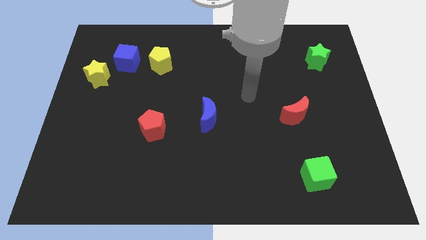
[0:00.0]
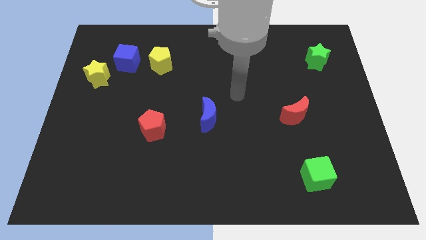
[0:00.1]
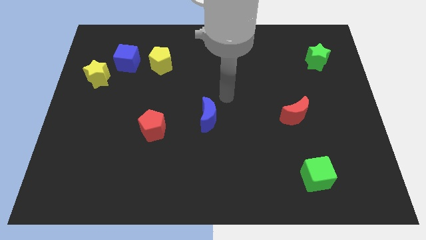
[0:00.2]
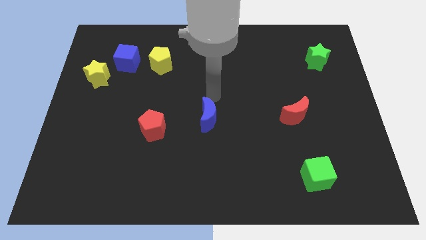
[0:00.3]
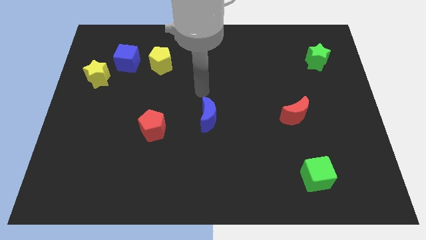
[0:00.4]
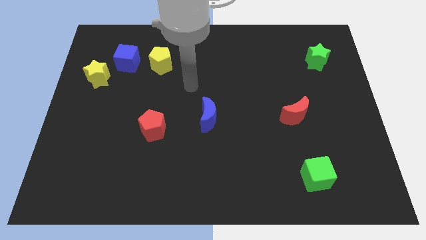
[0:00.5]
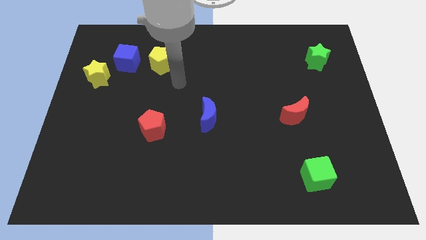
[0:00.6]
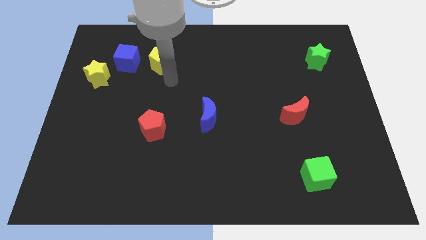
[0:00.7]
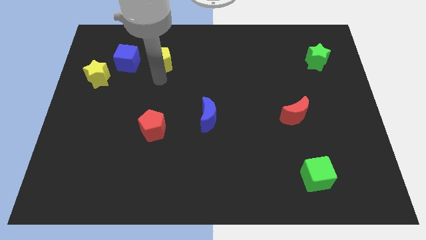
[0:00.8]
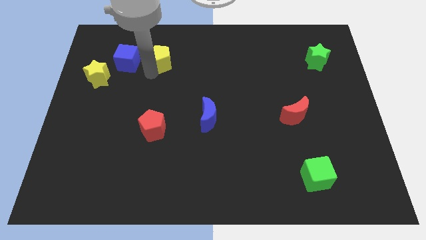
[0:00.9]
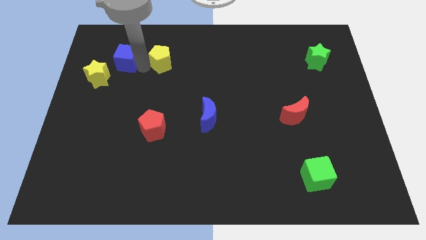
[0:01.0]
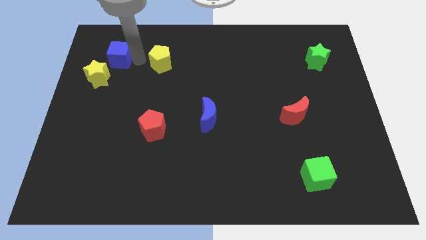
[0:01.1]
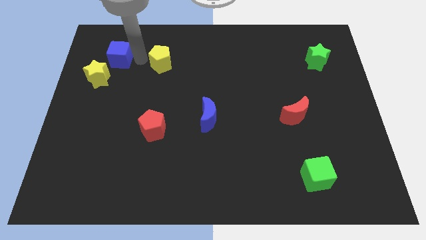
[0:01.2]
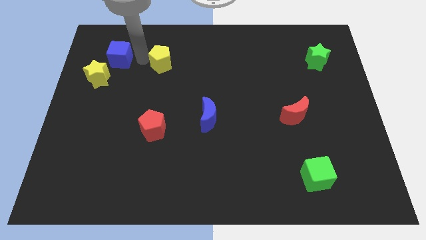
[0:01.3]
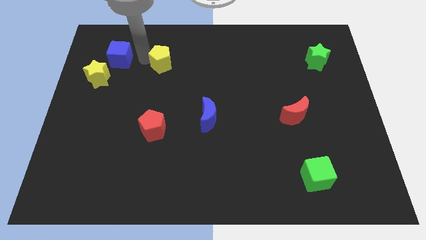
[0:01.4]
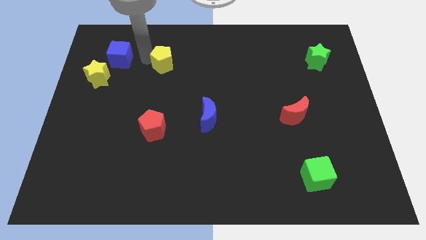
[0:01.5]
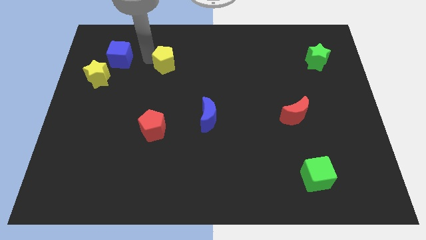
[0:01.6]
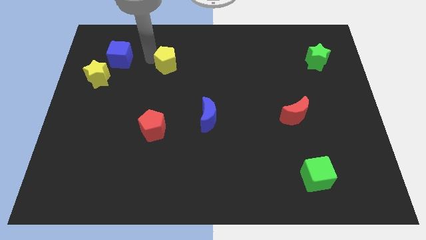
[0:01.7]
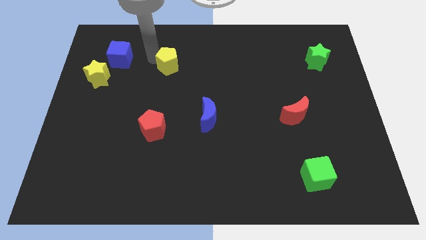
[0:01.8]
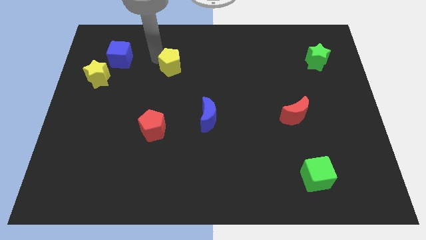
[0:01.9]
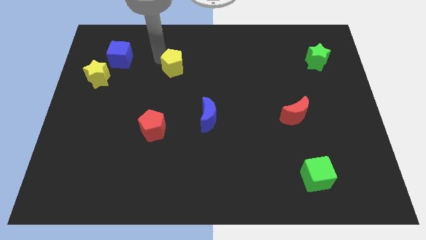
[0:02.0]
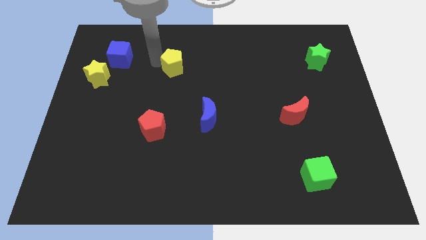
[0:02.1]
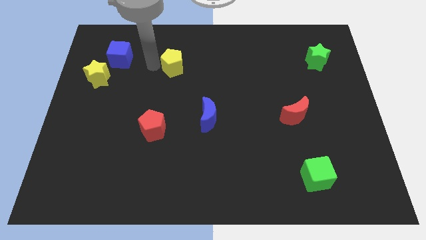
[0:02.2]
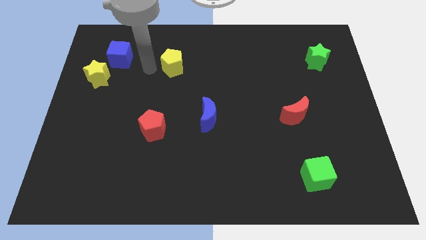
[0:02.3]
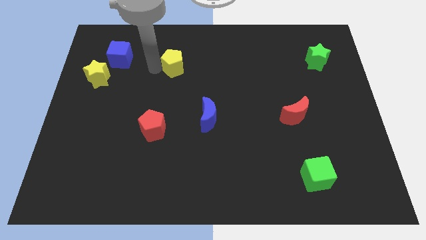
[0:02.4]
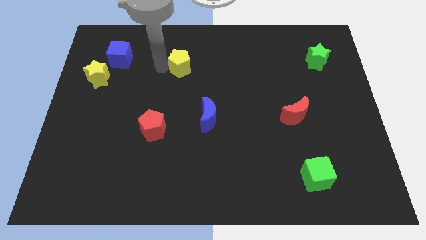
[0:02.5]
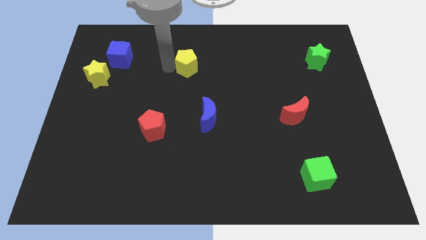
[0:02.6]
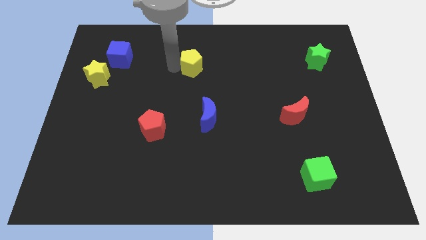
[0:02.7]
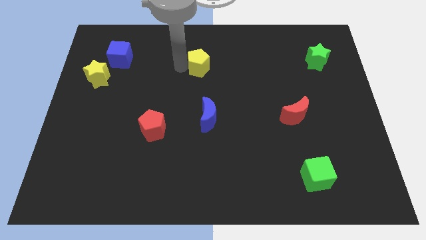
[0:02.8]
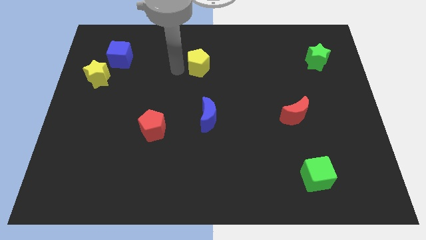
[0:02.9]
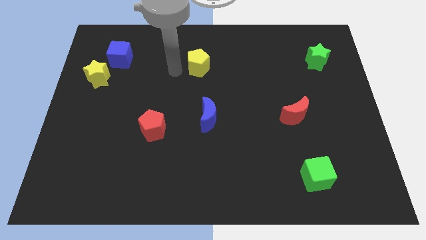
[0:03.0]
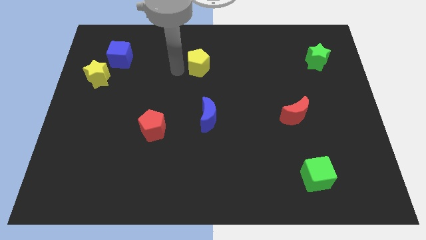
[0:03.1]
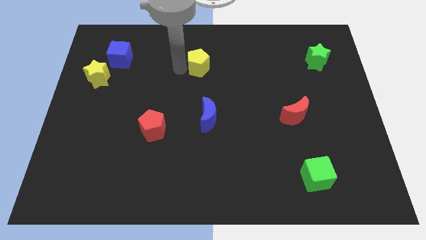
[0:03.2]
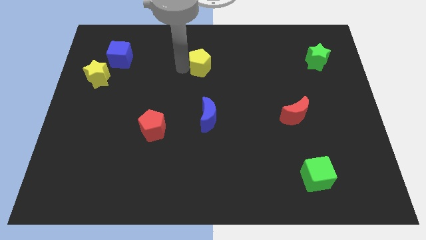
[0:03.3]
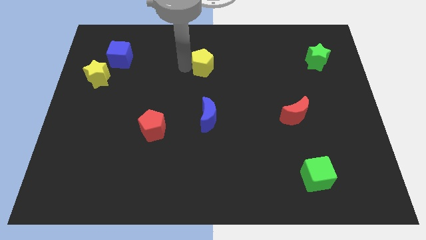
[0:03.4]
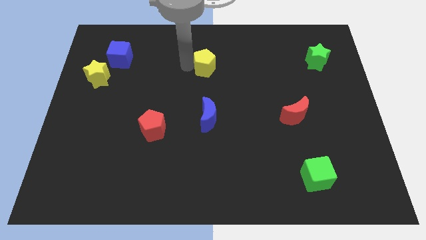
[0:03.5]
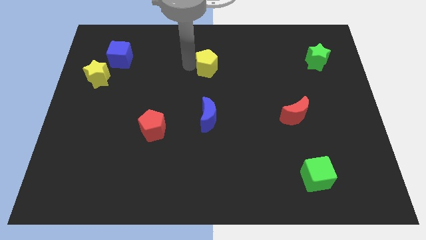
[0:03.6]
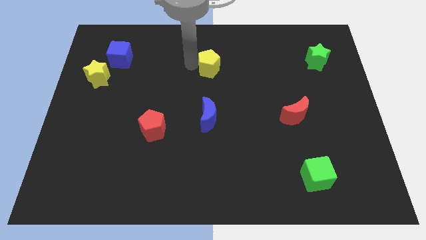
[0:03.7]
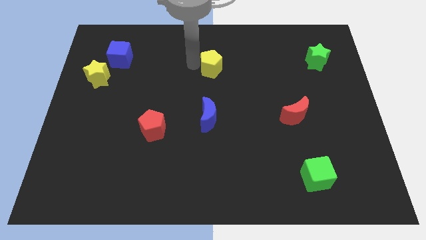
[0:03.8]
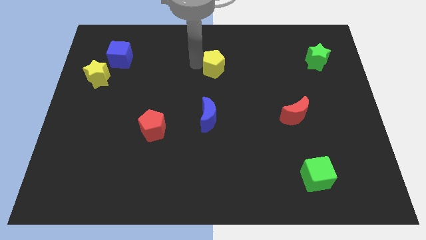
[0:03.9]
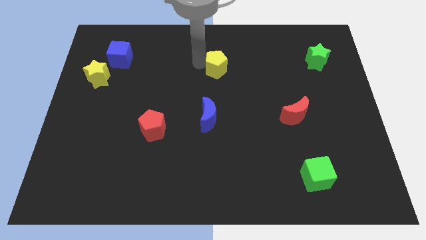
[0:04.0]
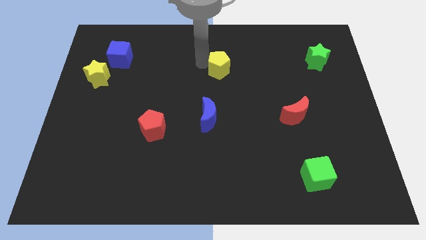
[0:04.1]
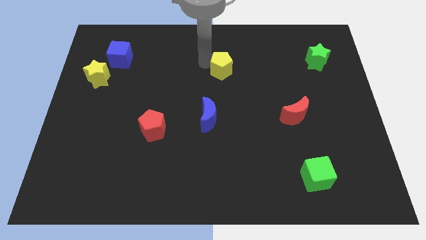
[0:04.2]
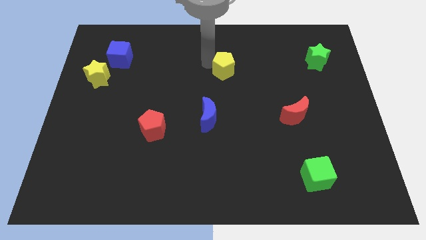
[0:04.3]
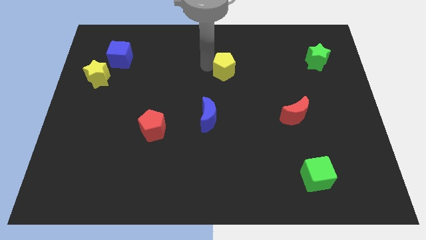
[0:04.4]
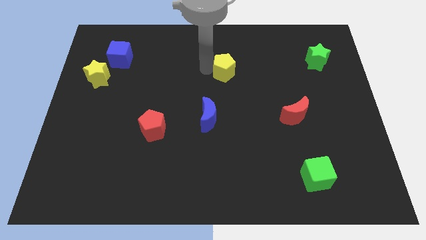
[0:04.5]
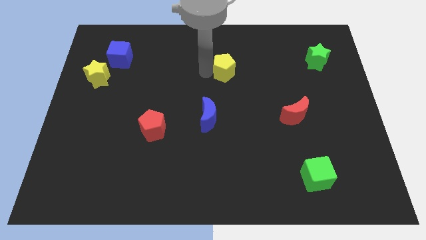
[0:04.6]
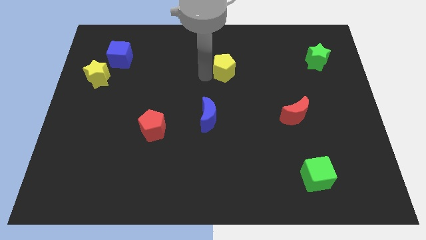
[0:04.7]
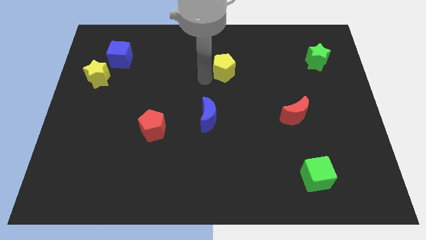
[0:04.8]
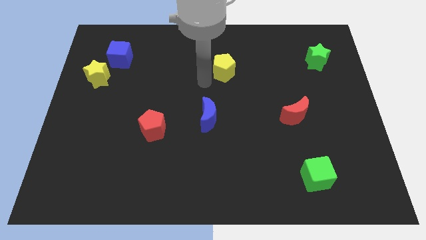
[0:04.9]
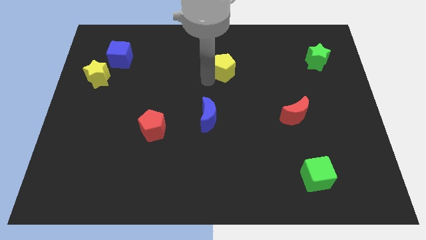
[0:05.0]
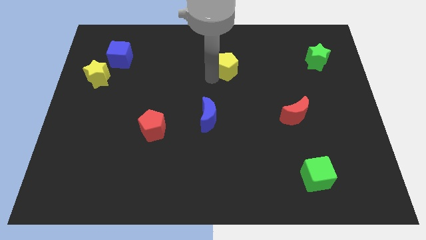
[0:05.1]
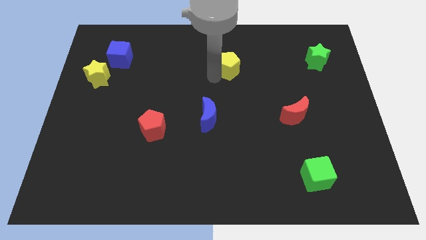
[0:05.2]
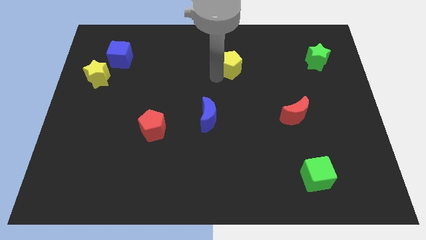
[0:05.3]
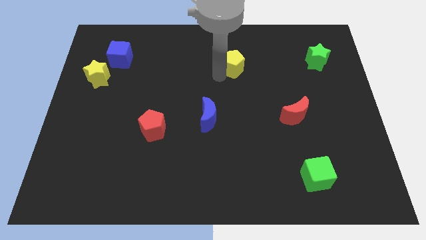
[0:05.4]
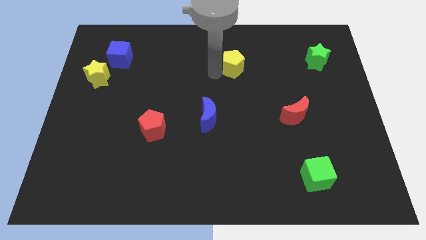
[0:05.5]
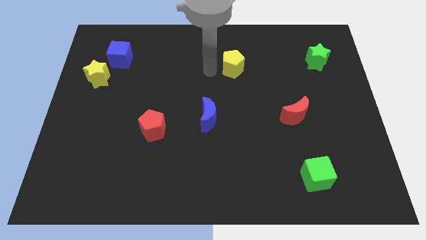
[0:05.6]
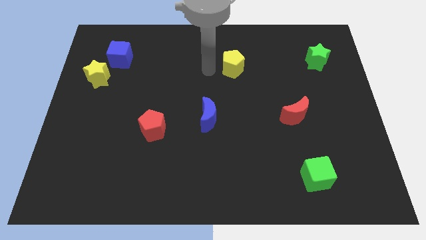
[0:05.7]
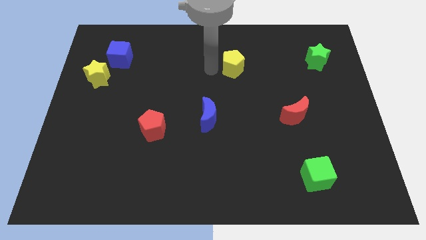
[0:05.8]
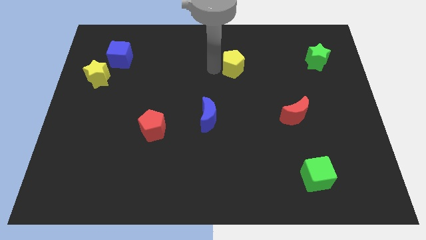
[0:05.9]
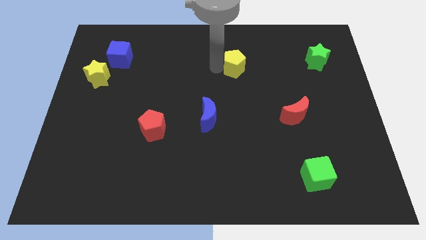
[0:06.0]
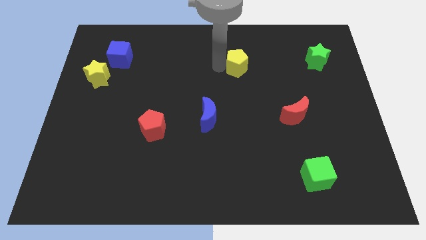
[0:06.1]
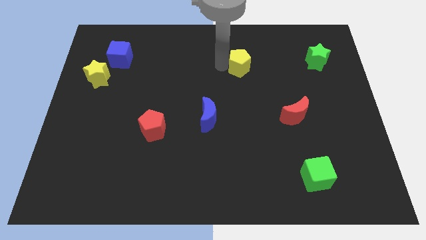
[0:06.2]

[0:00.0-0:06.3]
push the yellow pentagon to the right

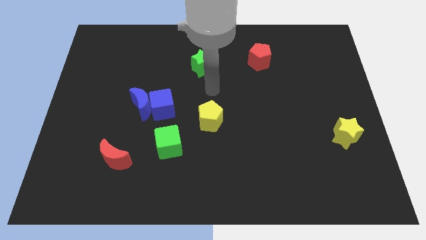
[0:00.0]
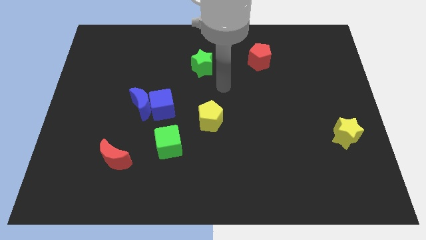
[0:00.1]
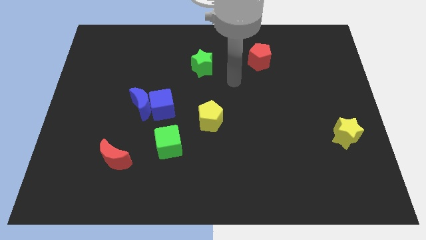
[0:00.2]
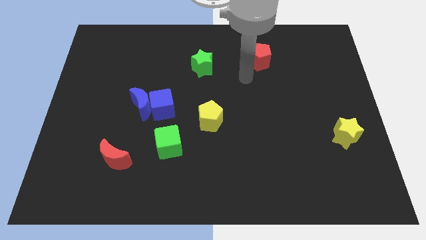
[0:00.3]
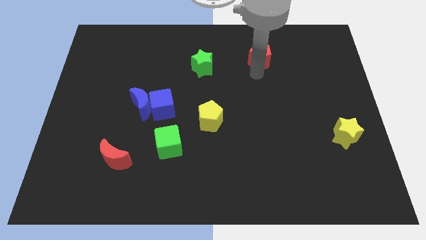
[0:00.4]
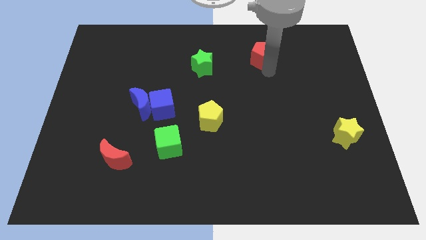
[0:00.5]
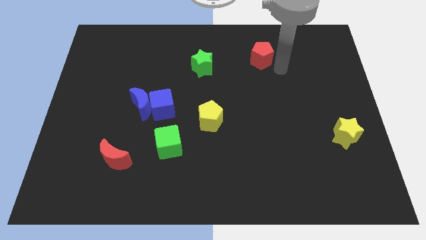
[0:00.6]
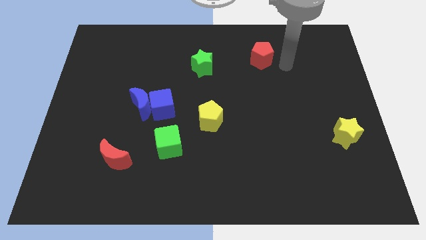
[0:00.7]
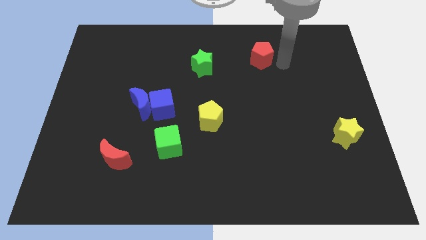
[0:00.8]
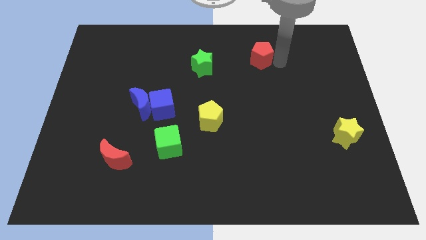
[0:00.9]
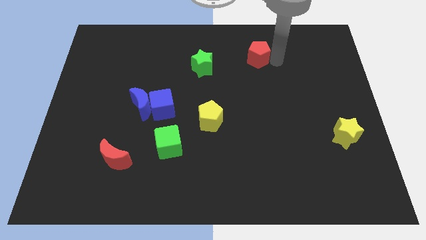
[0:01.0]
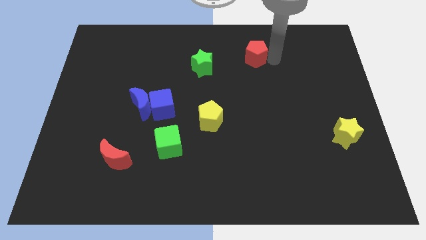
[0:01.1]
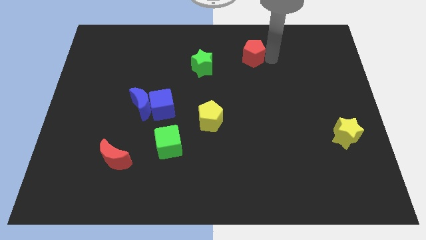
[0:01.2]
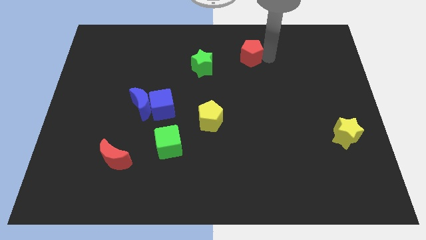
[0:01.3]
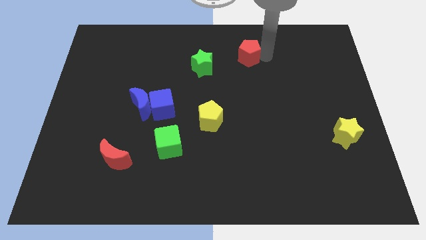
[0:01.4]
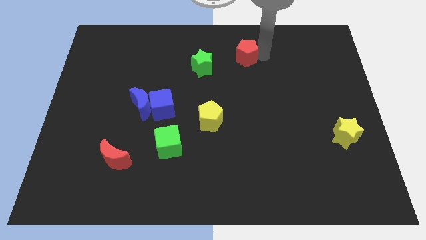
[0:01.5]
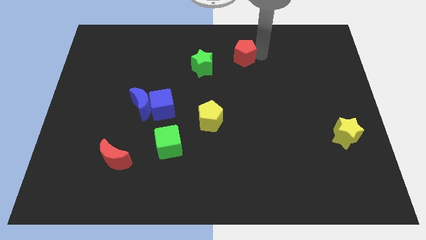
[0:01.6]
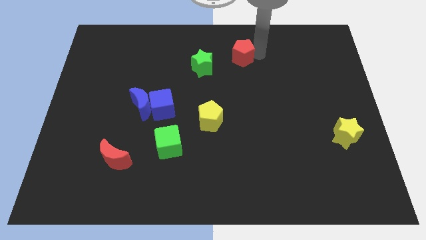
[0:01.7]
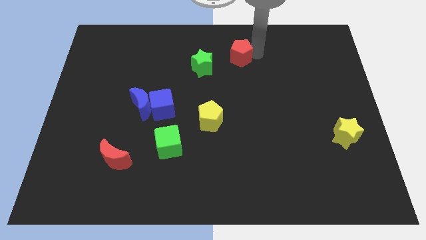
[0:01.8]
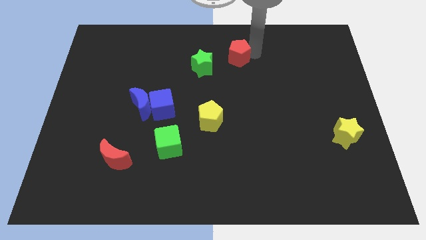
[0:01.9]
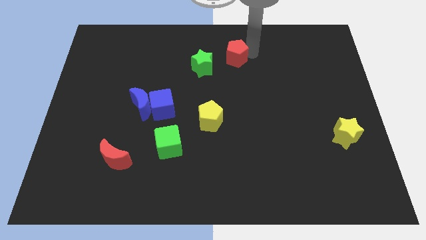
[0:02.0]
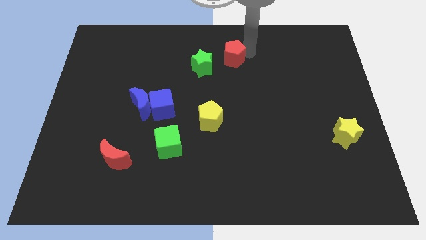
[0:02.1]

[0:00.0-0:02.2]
slightly push the red pentagon left
